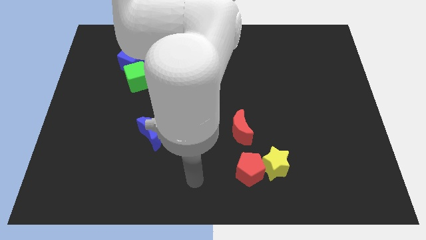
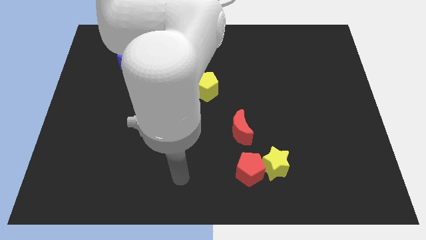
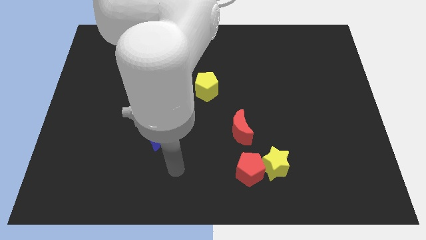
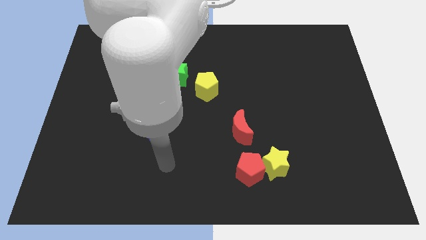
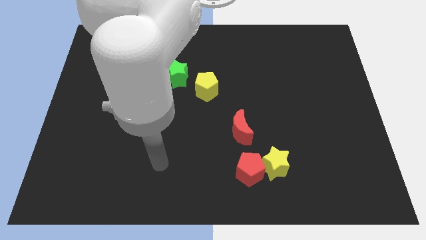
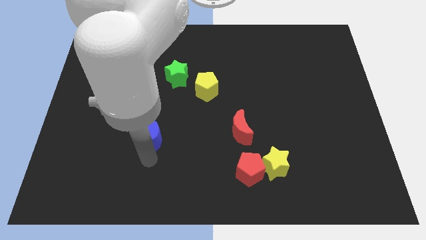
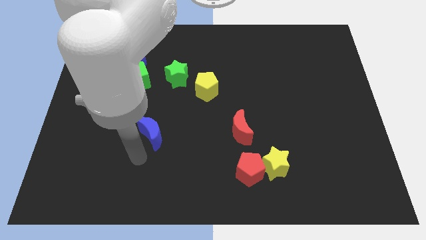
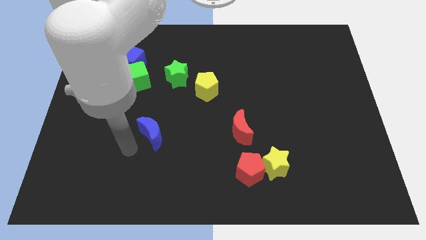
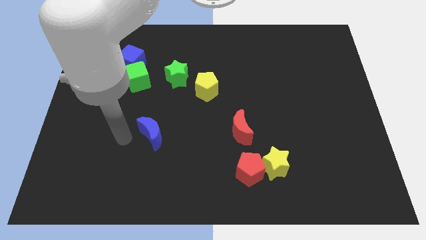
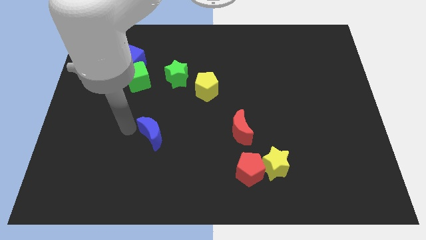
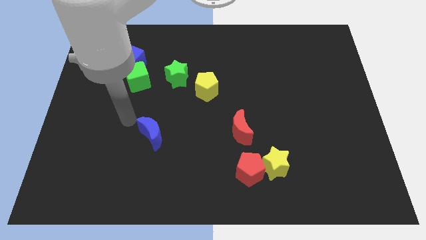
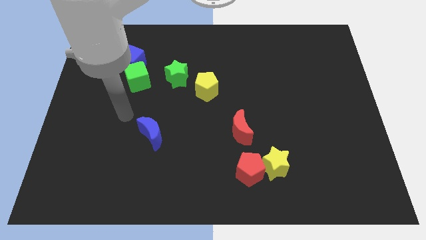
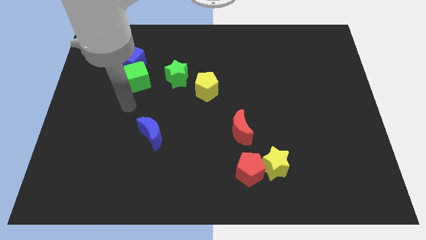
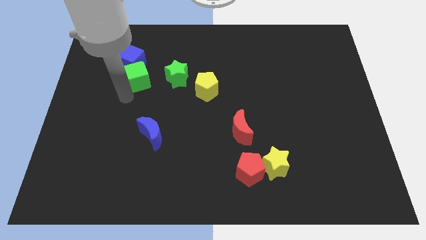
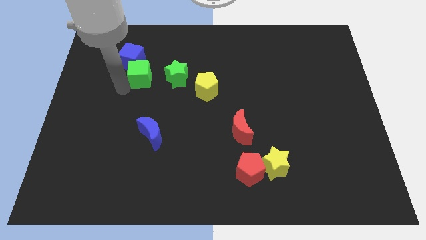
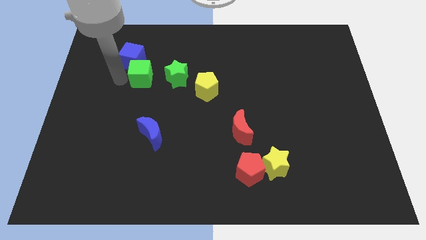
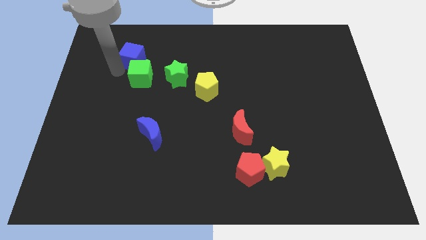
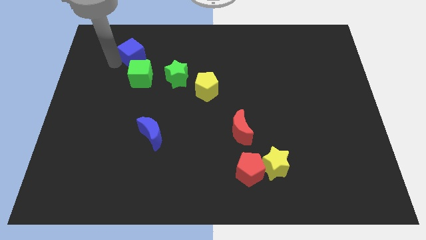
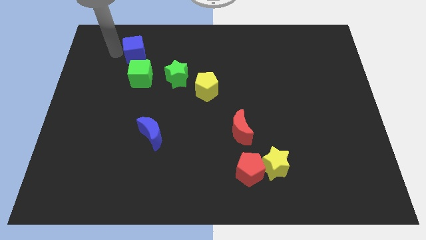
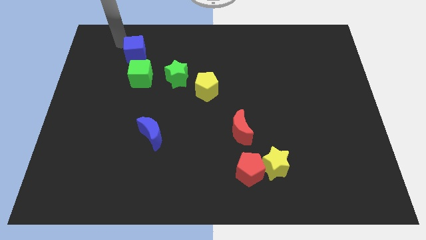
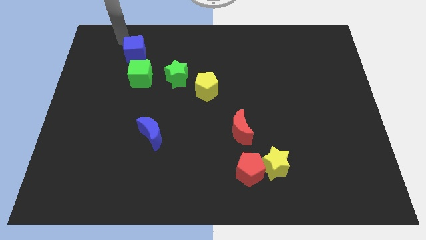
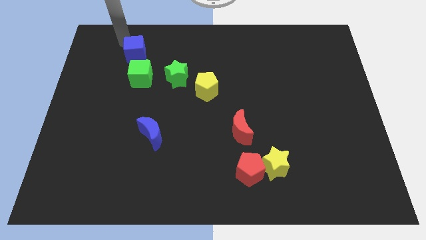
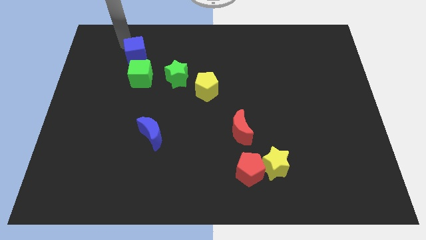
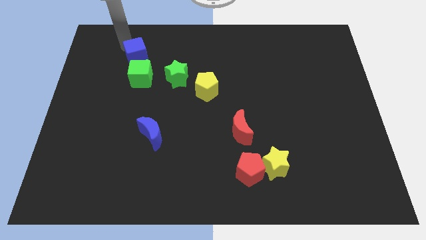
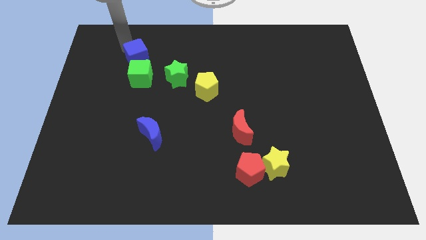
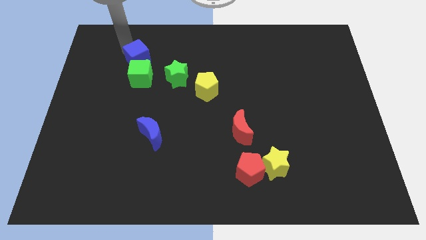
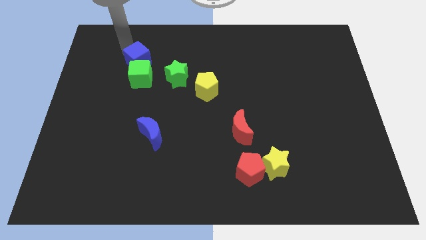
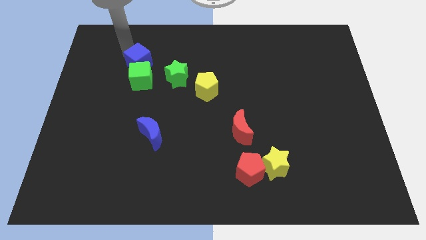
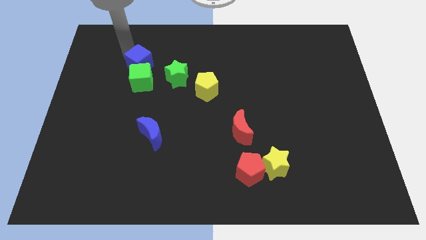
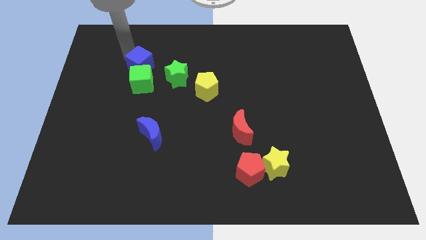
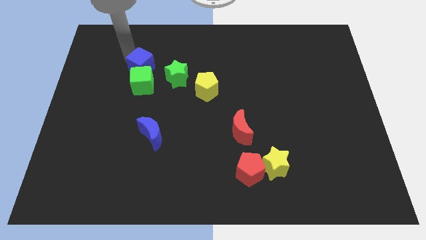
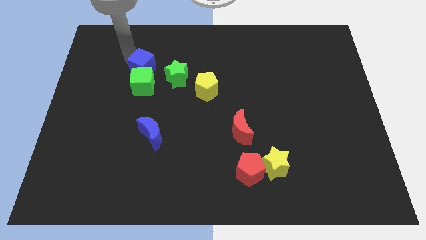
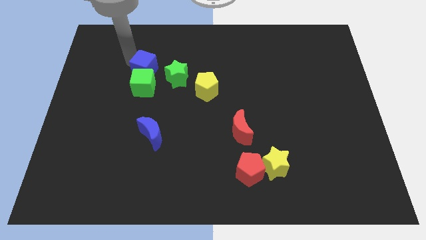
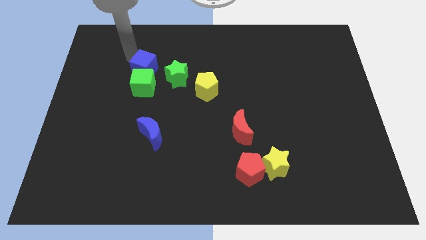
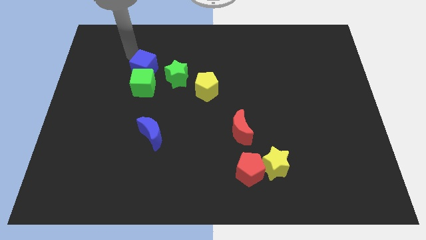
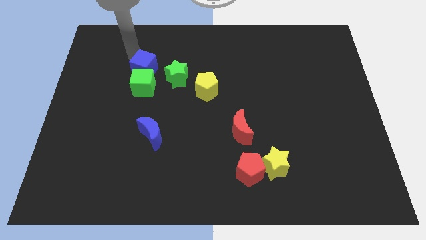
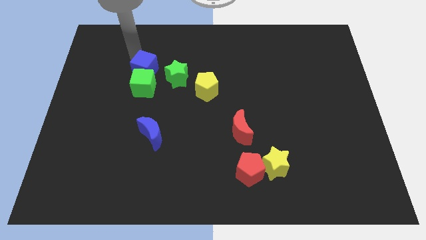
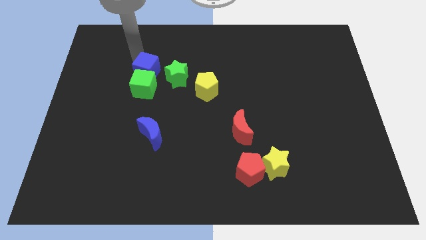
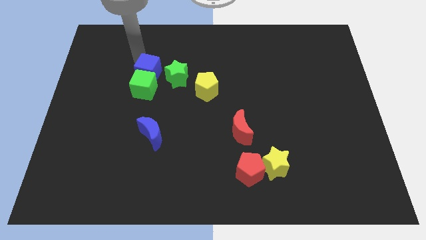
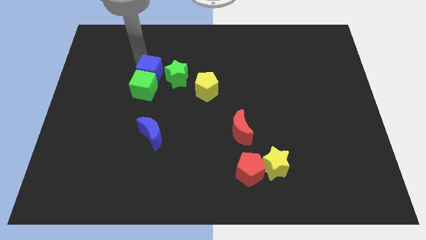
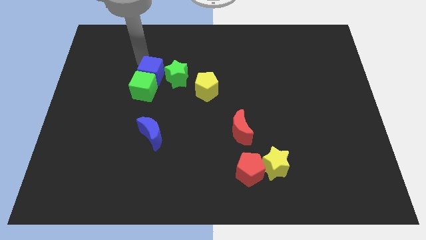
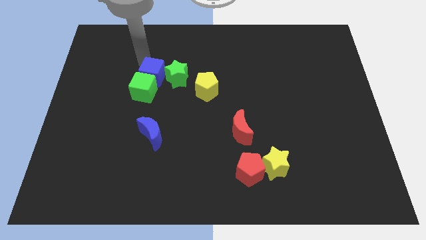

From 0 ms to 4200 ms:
slightly slide the blue cube downwards and right

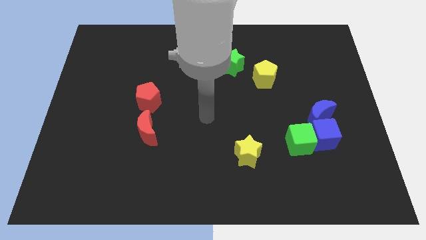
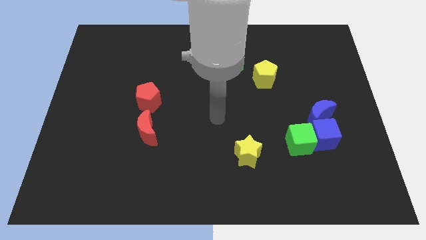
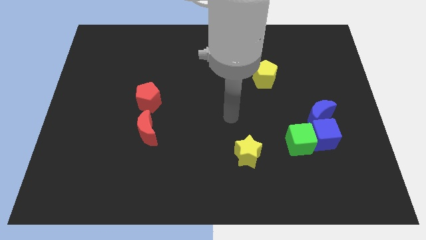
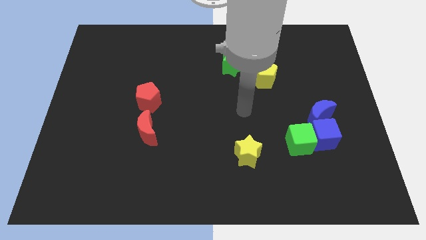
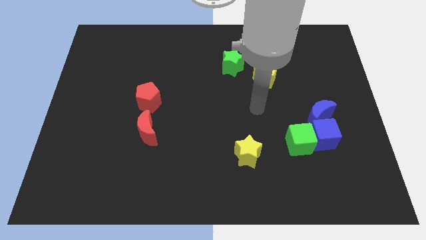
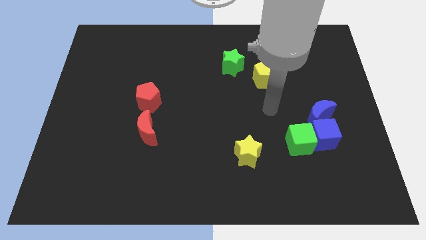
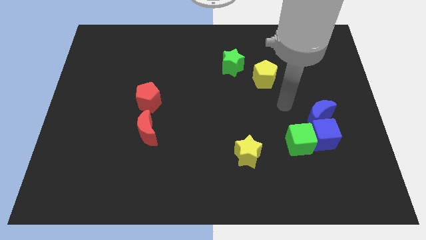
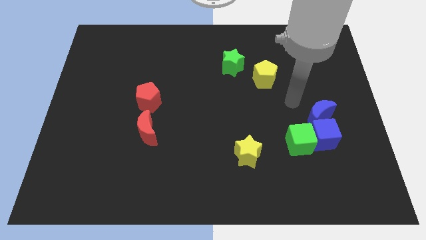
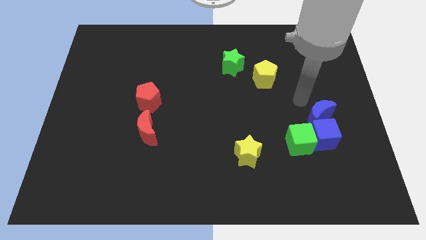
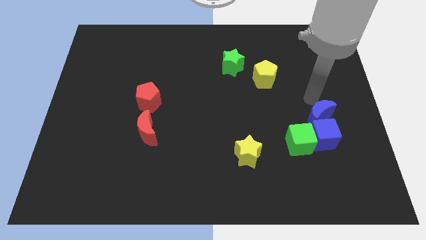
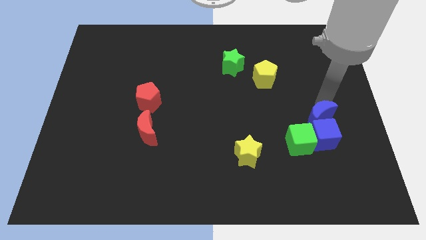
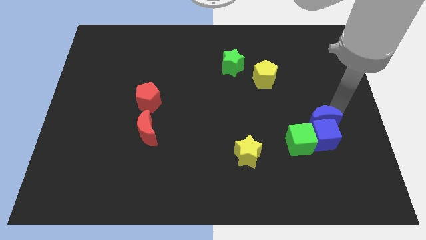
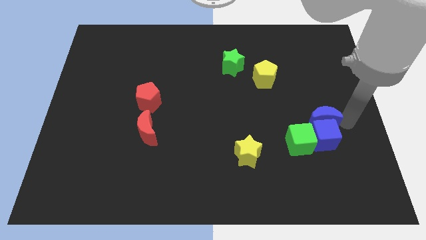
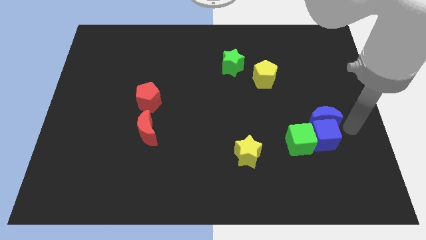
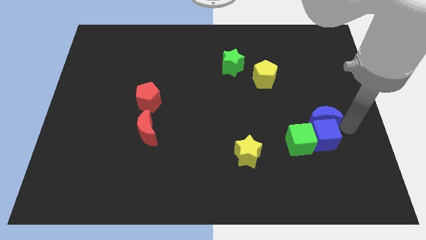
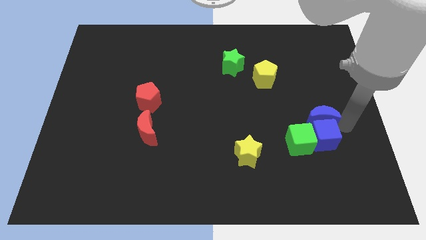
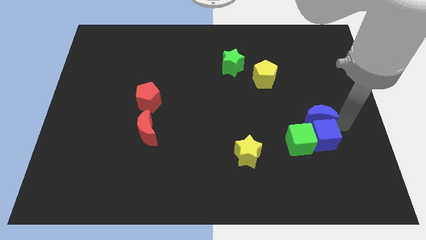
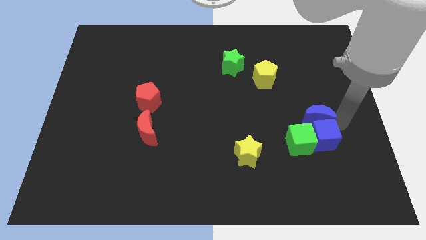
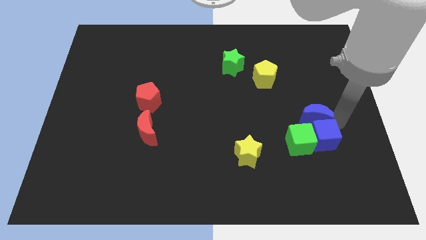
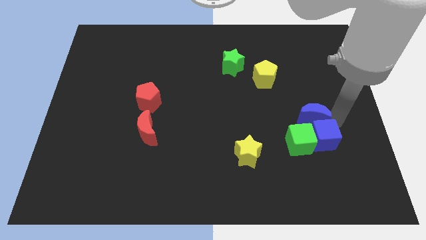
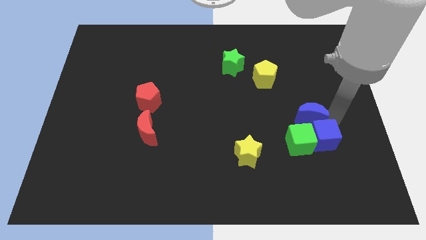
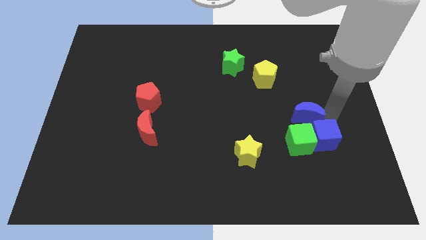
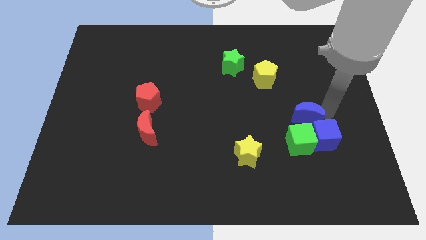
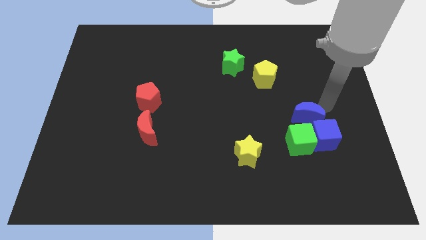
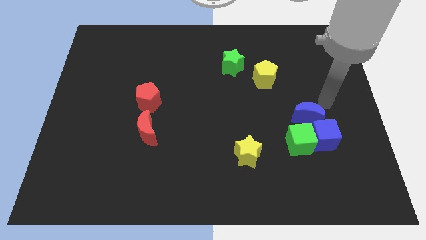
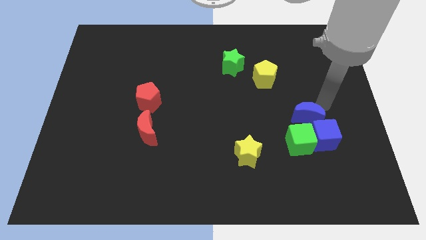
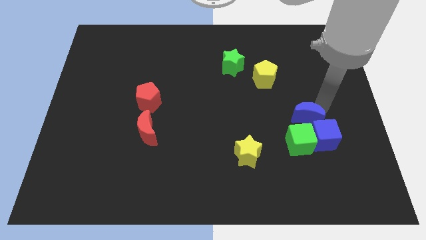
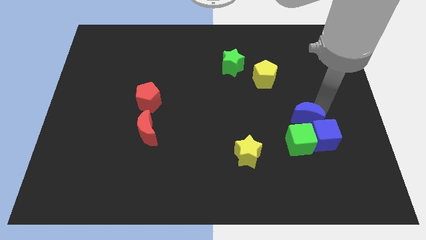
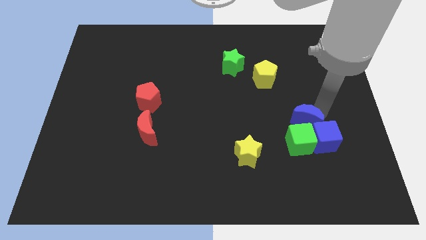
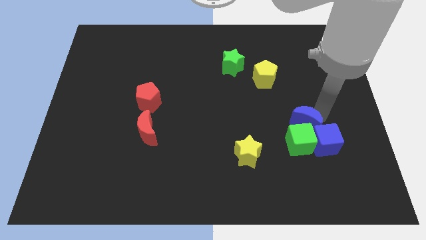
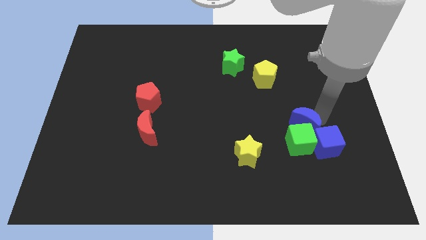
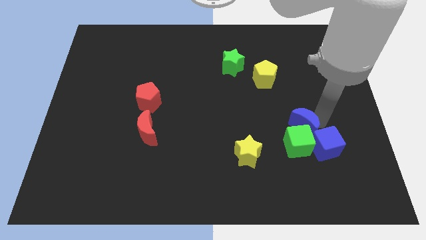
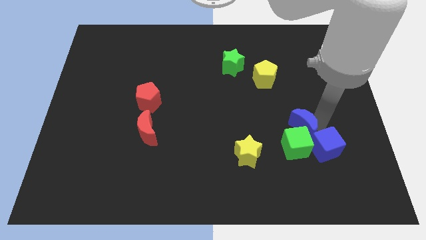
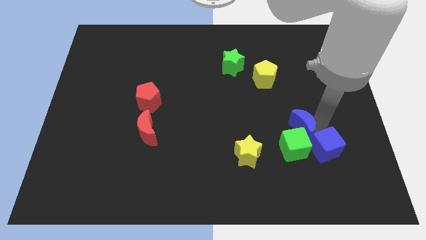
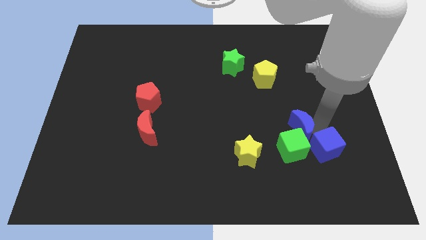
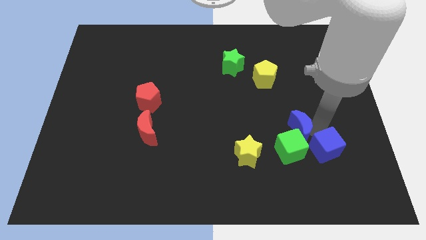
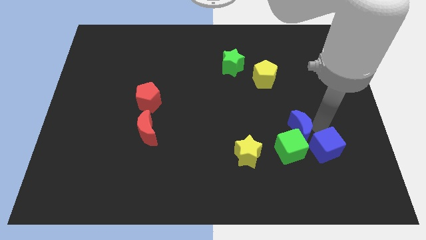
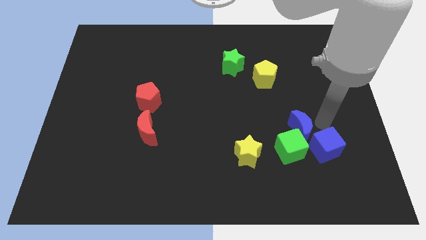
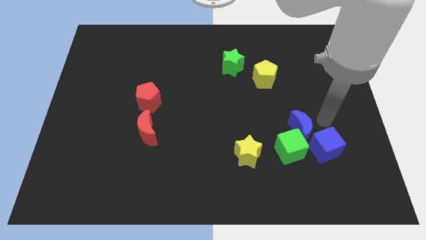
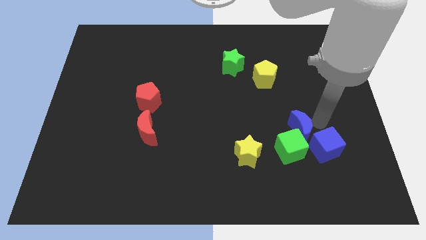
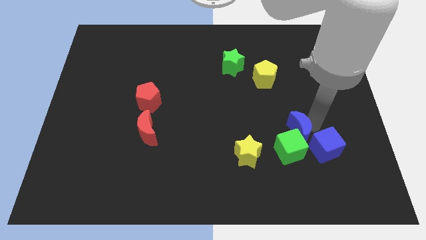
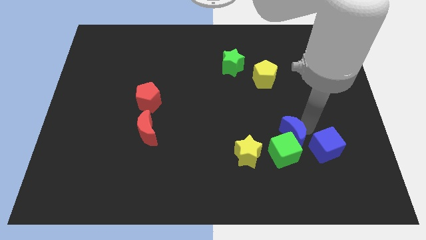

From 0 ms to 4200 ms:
slightly slide the blue moon down and left

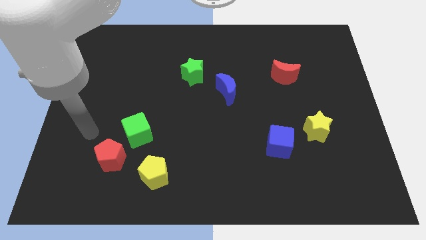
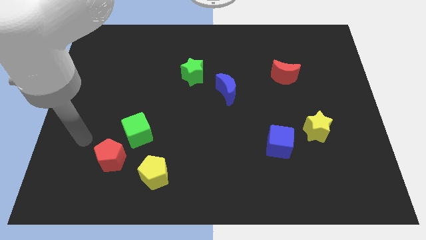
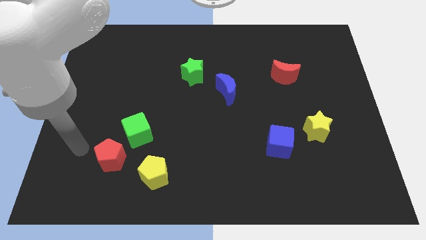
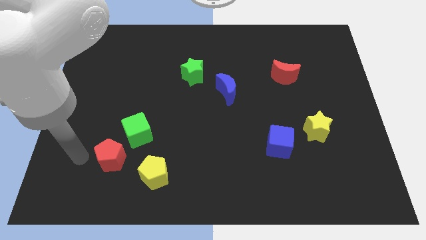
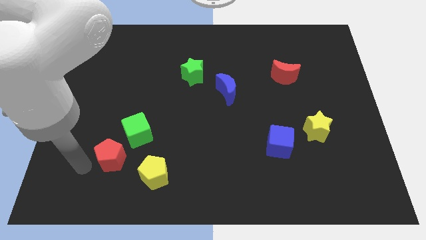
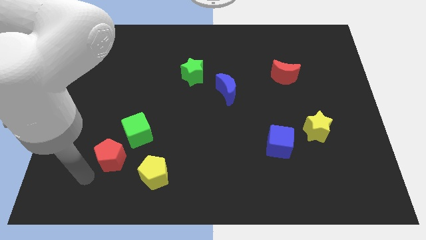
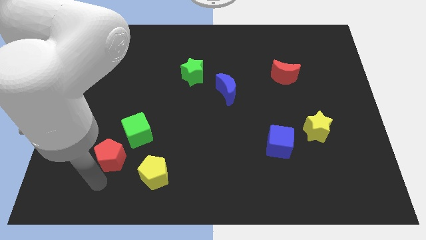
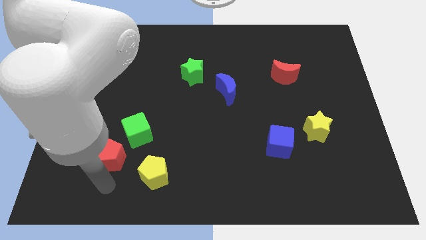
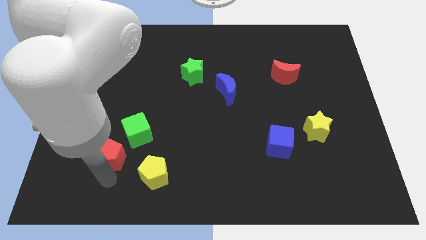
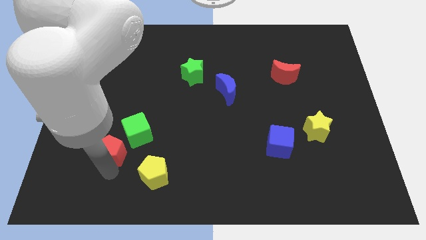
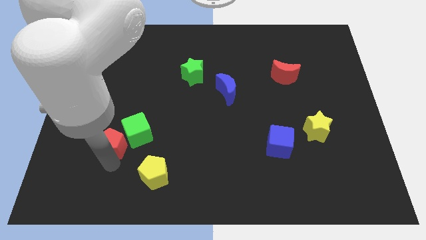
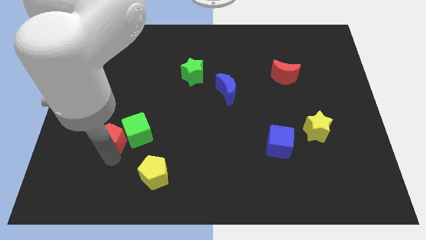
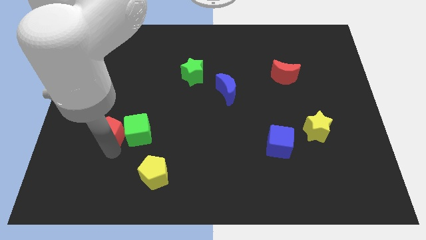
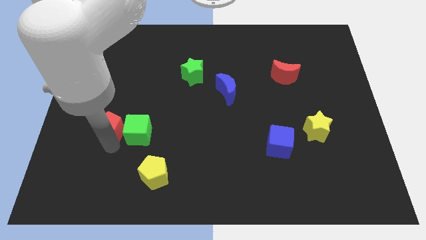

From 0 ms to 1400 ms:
slide the red pentagon upwards somewhat
